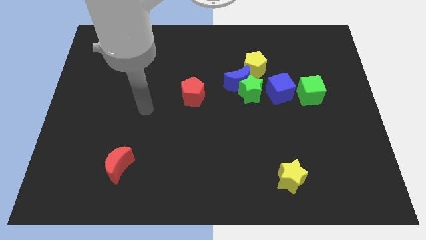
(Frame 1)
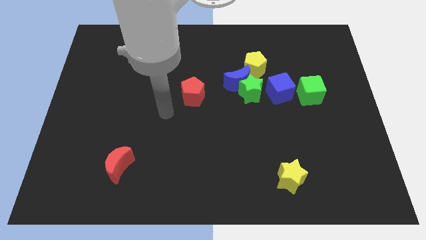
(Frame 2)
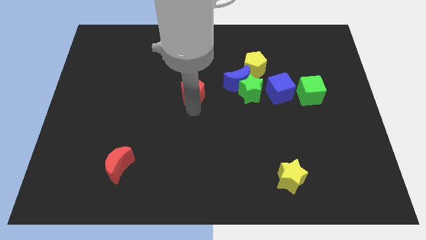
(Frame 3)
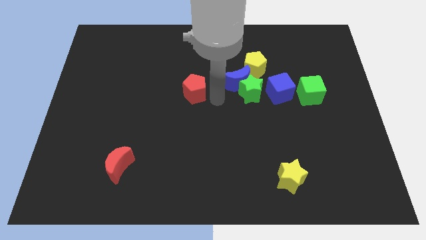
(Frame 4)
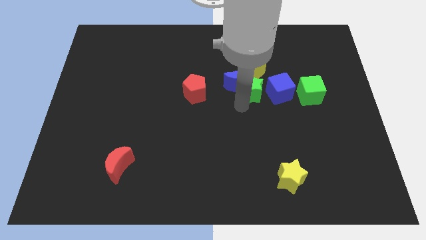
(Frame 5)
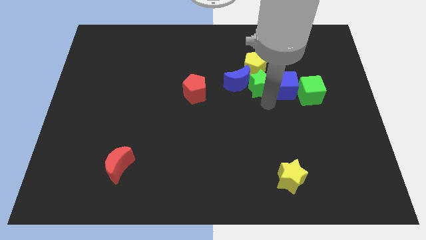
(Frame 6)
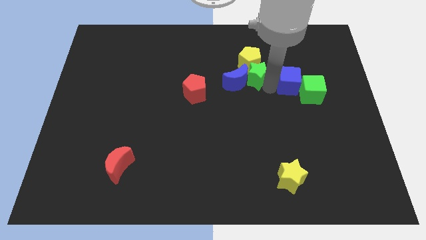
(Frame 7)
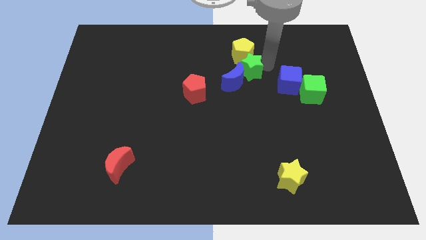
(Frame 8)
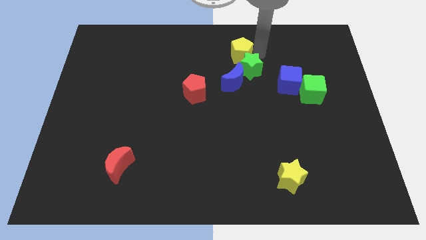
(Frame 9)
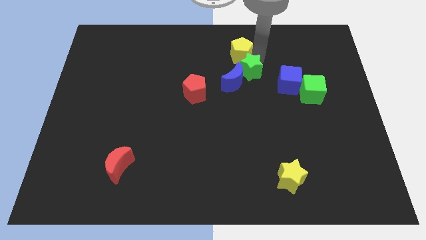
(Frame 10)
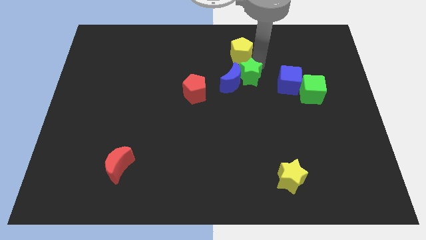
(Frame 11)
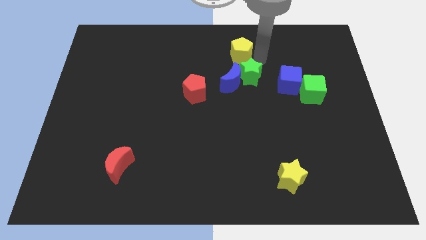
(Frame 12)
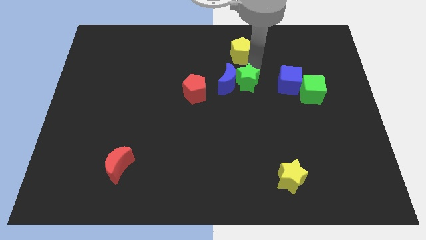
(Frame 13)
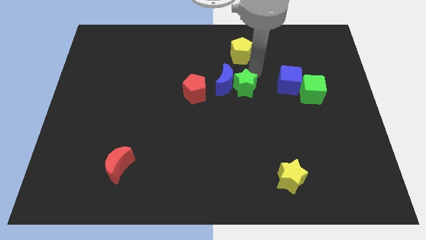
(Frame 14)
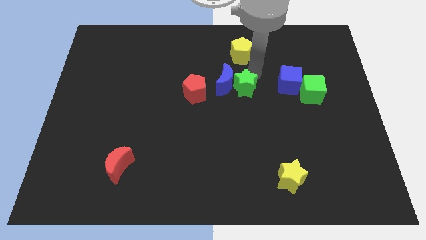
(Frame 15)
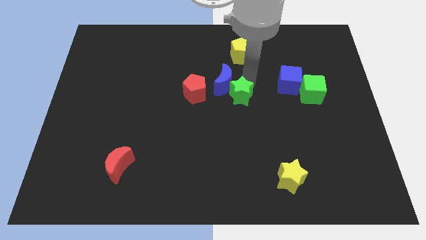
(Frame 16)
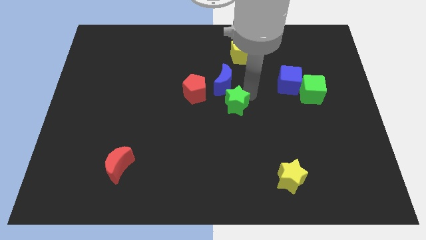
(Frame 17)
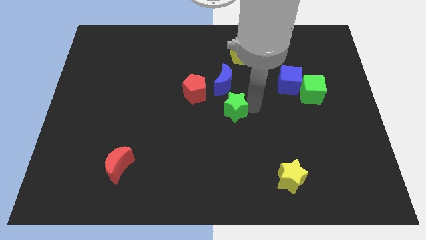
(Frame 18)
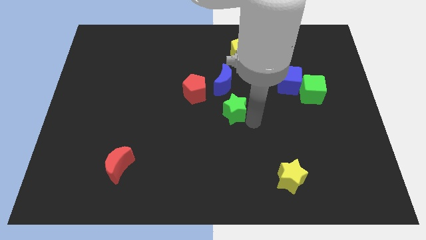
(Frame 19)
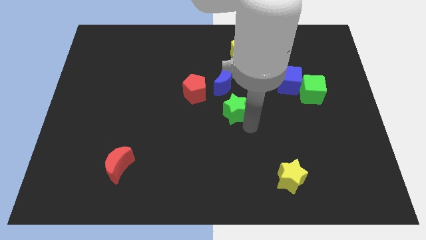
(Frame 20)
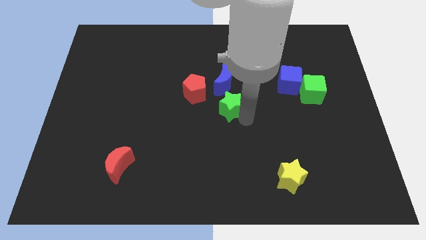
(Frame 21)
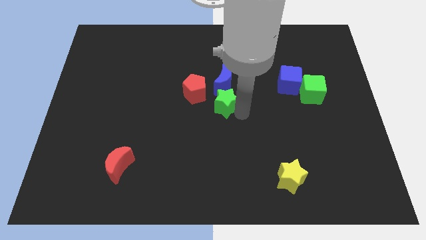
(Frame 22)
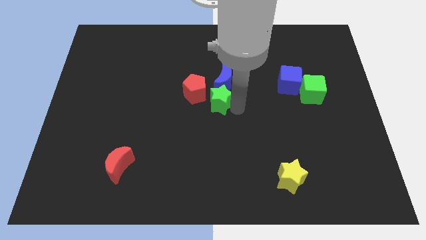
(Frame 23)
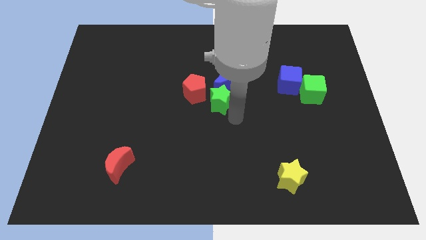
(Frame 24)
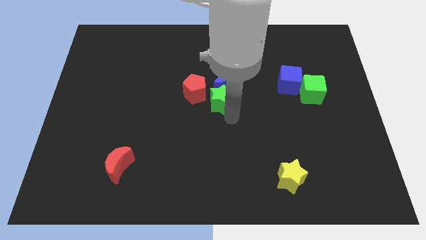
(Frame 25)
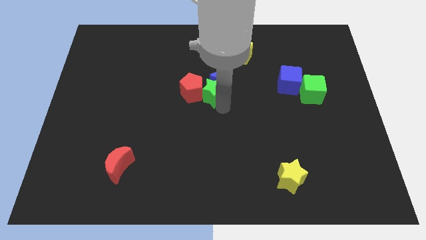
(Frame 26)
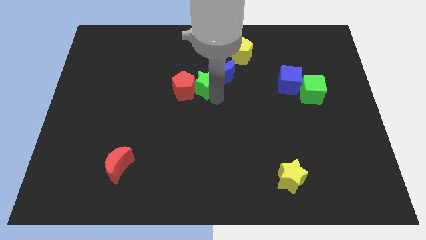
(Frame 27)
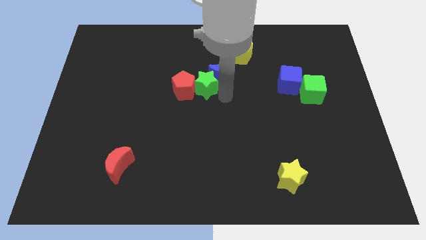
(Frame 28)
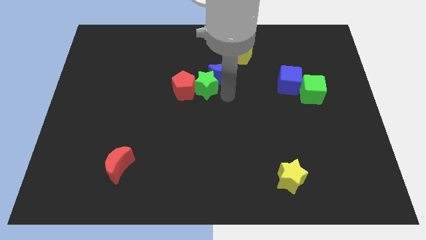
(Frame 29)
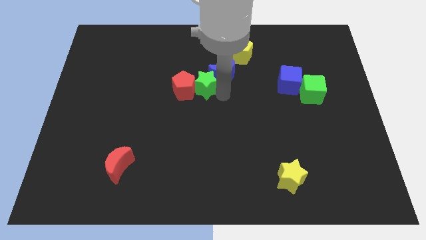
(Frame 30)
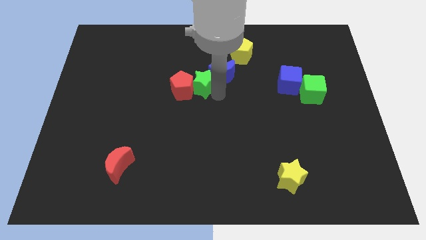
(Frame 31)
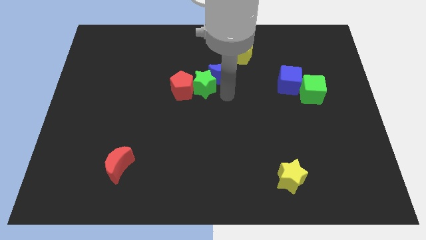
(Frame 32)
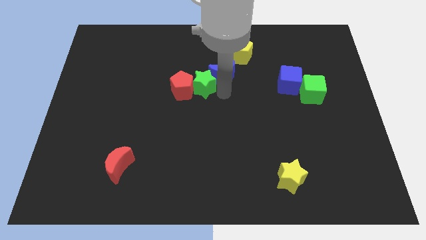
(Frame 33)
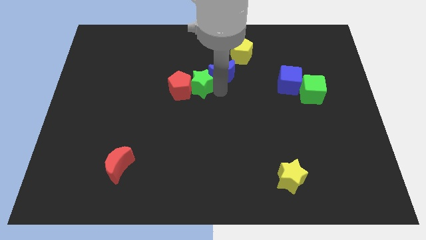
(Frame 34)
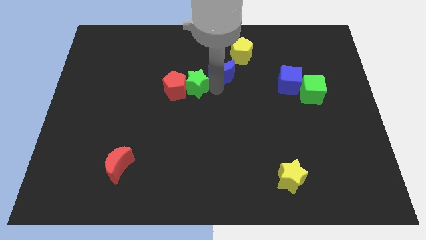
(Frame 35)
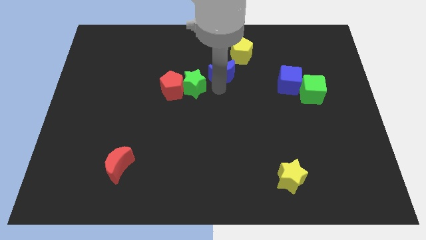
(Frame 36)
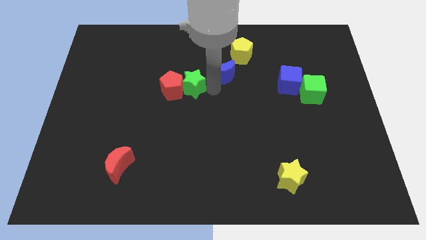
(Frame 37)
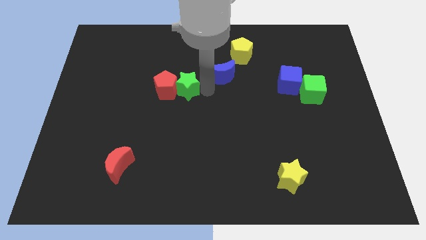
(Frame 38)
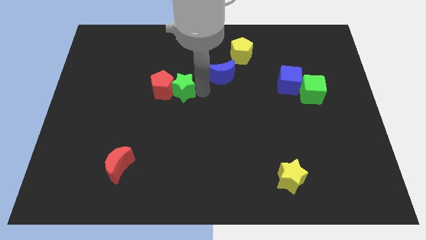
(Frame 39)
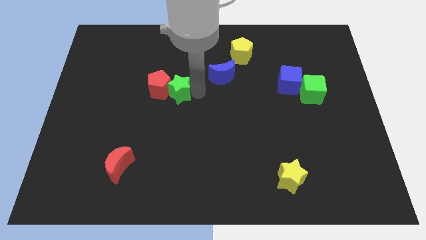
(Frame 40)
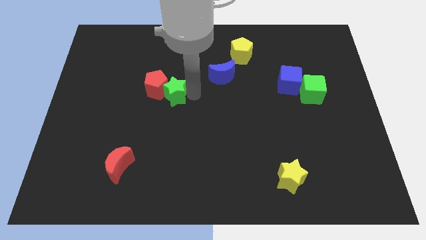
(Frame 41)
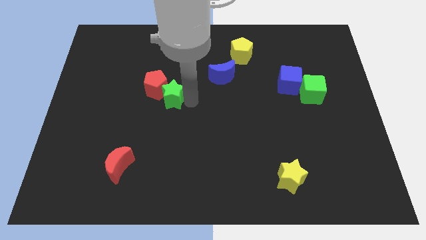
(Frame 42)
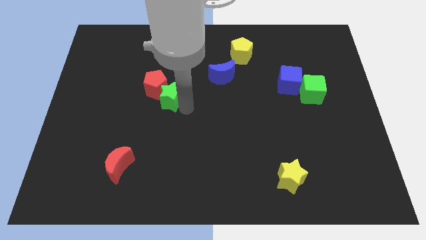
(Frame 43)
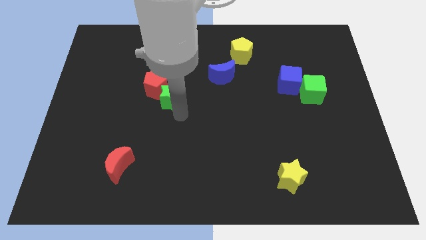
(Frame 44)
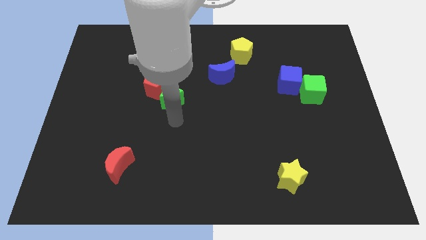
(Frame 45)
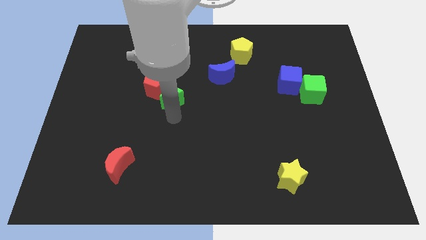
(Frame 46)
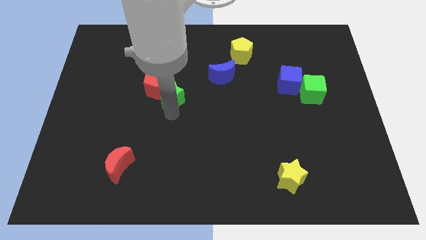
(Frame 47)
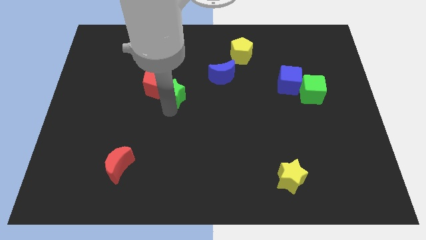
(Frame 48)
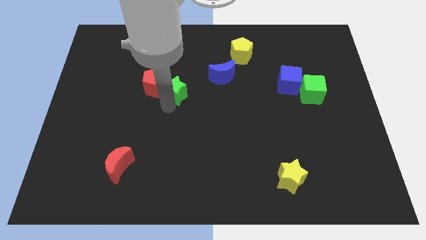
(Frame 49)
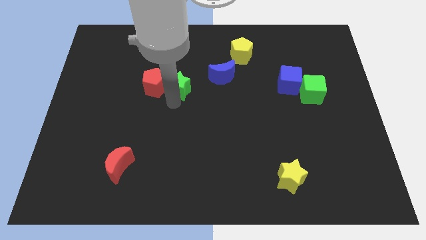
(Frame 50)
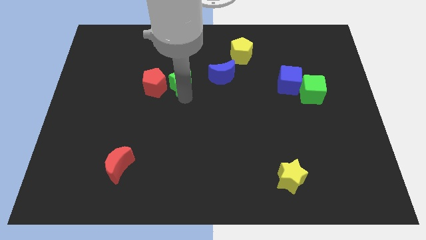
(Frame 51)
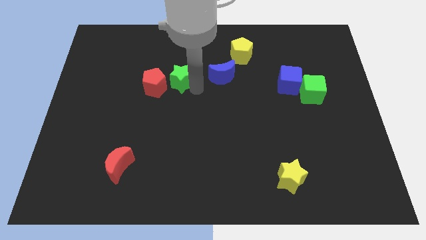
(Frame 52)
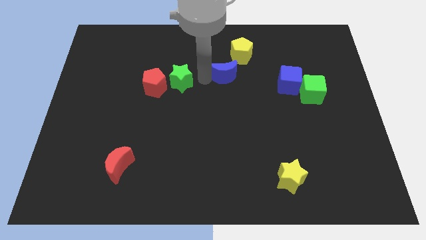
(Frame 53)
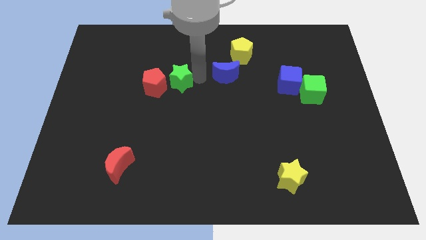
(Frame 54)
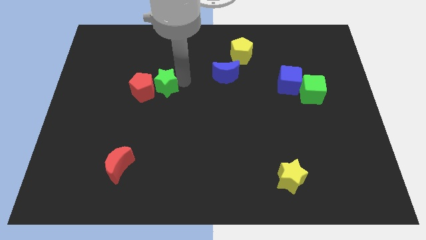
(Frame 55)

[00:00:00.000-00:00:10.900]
push the green star left

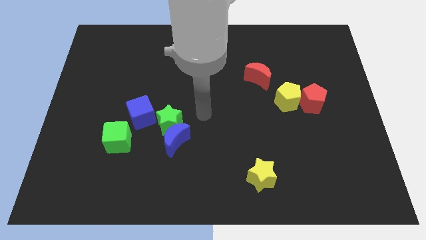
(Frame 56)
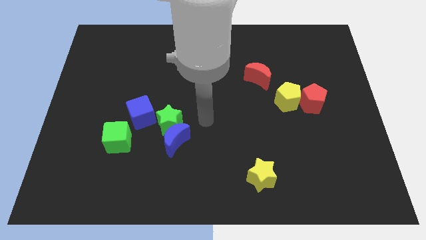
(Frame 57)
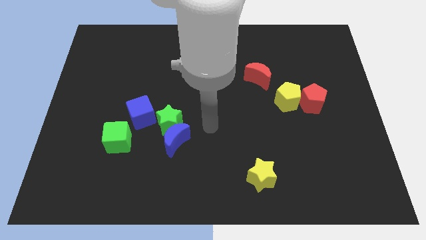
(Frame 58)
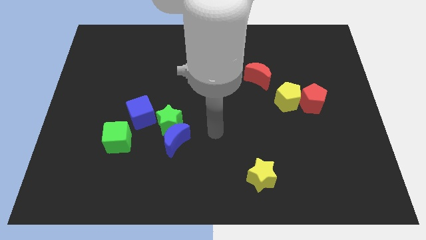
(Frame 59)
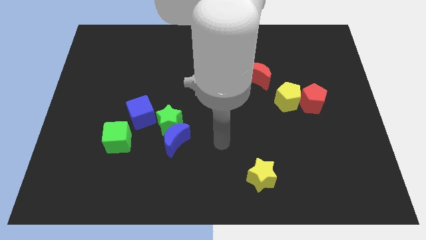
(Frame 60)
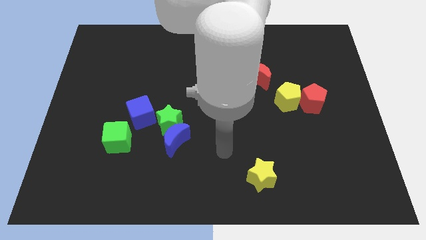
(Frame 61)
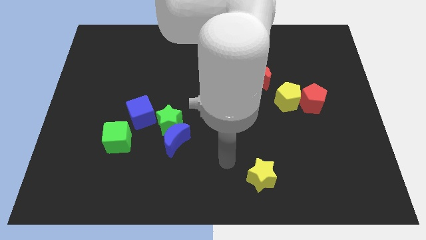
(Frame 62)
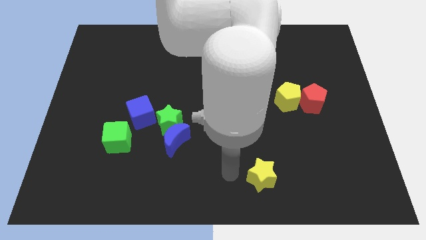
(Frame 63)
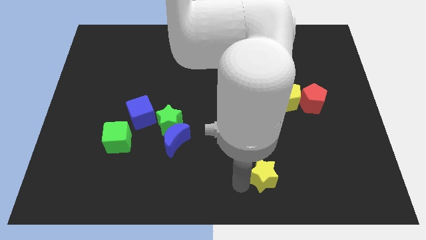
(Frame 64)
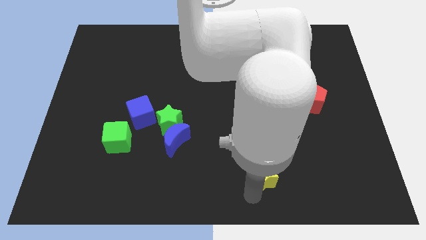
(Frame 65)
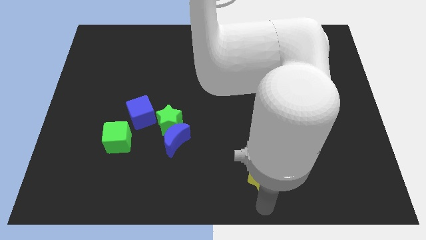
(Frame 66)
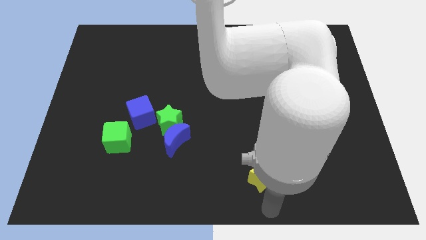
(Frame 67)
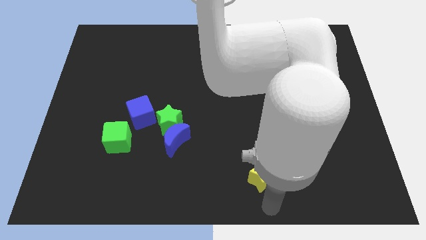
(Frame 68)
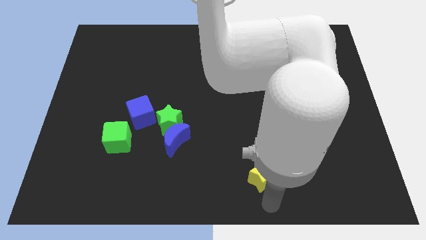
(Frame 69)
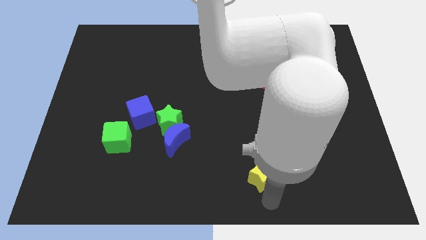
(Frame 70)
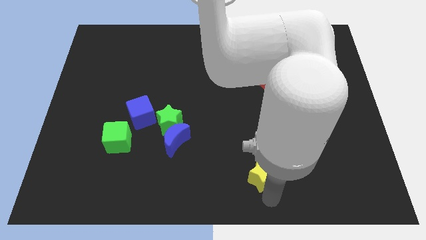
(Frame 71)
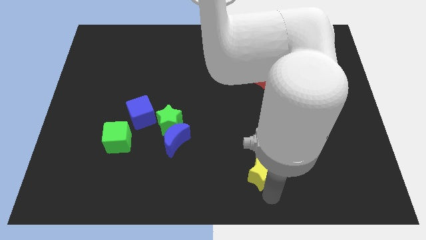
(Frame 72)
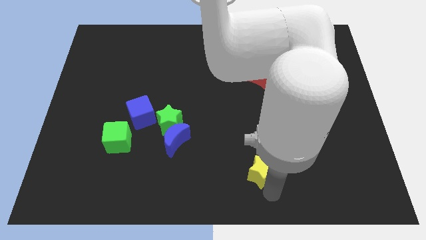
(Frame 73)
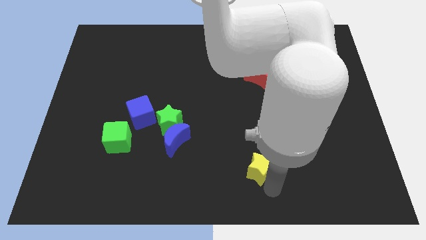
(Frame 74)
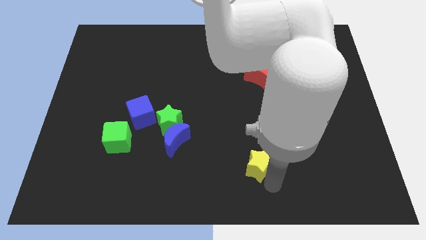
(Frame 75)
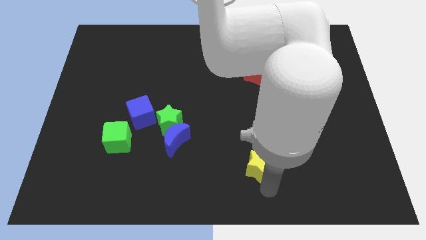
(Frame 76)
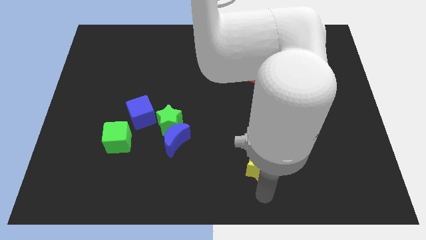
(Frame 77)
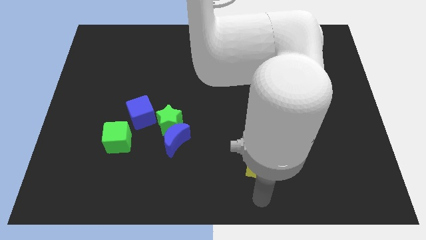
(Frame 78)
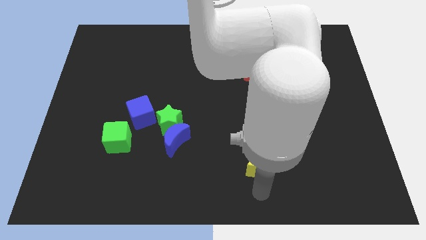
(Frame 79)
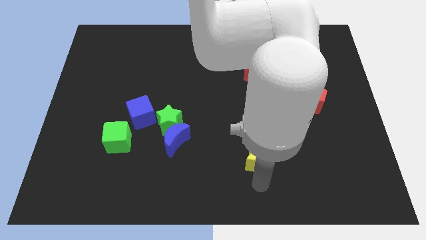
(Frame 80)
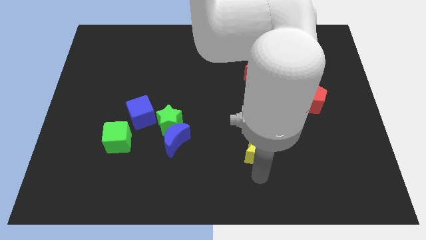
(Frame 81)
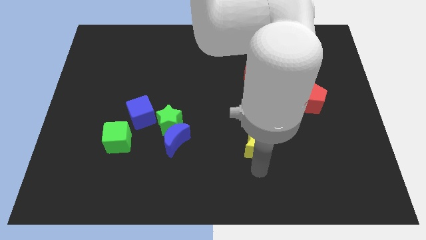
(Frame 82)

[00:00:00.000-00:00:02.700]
slightly move the yellow star upwards
